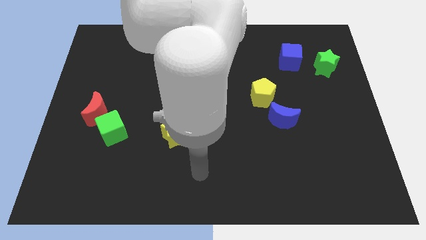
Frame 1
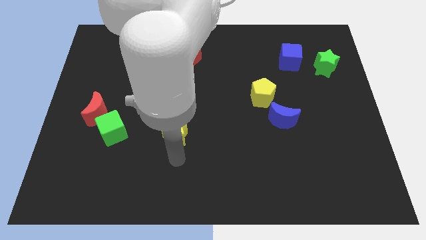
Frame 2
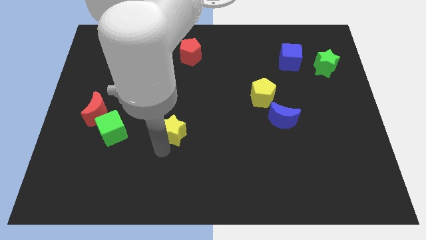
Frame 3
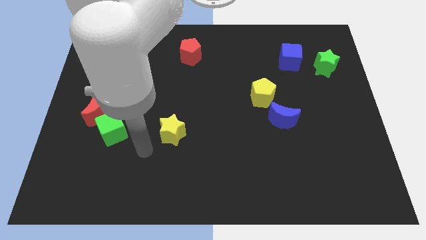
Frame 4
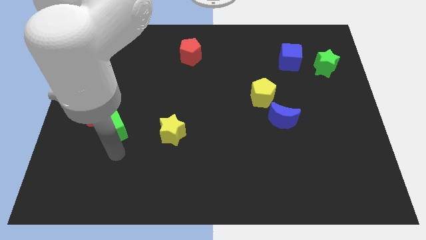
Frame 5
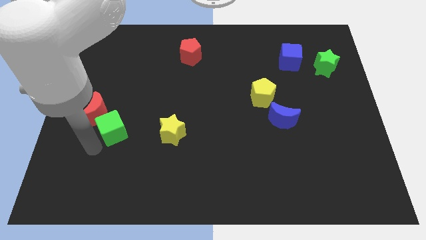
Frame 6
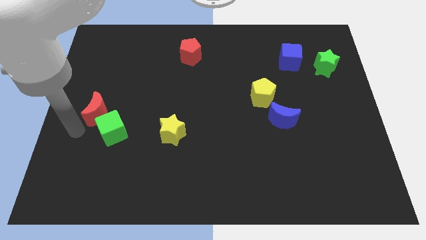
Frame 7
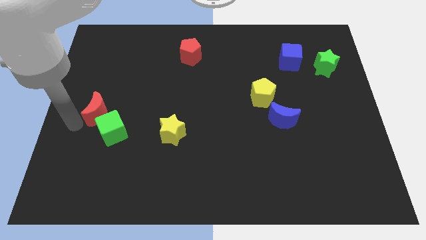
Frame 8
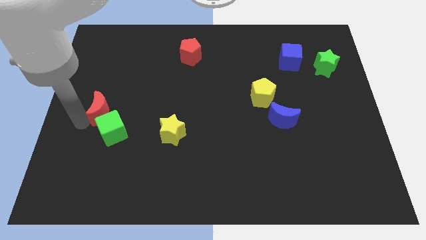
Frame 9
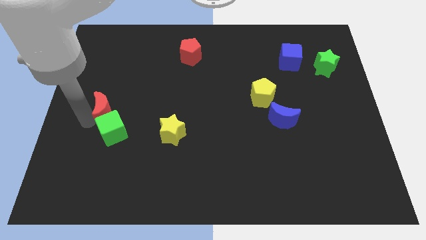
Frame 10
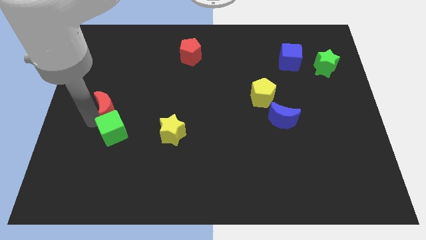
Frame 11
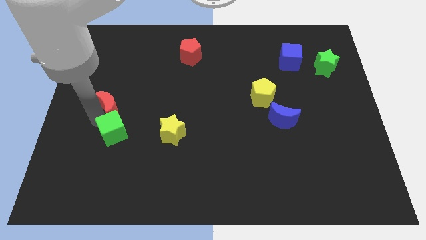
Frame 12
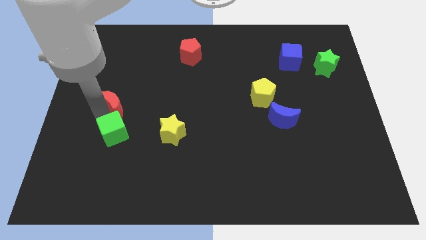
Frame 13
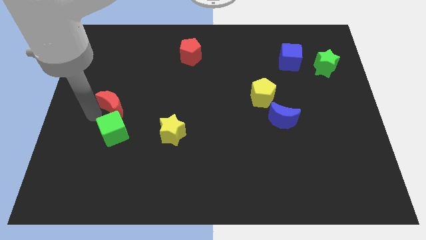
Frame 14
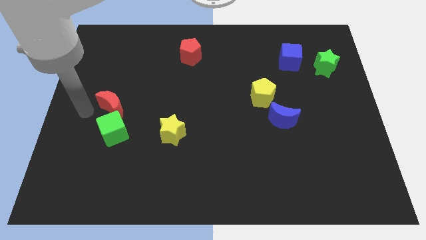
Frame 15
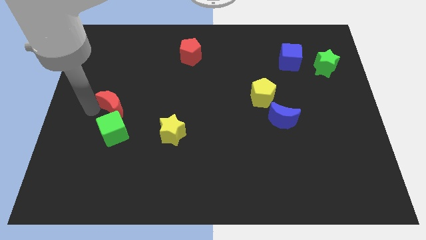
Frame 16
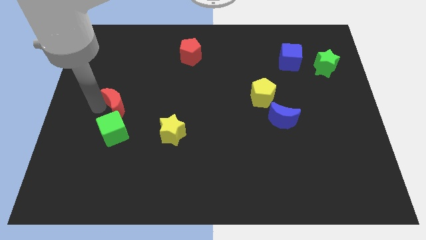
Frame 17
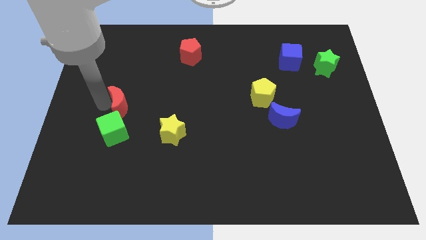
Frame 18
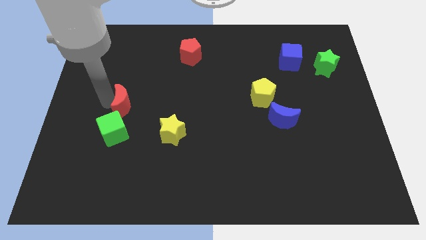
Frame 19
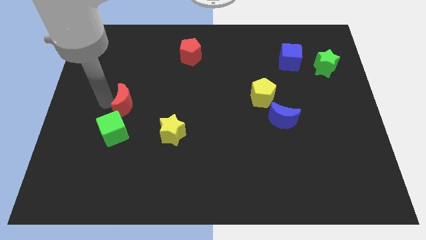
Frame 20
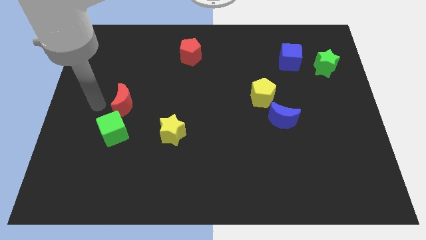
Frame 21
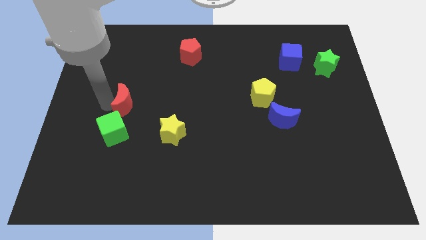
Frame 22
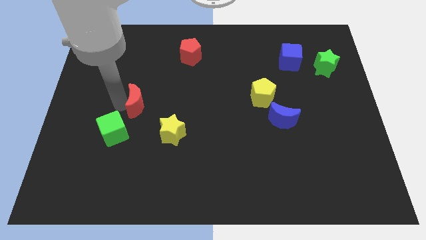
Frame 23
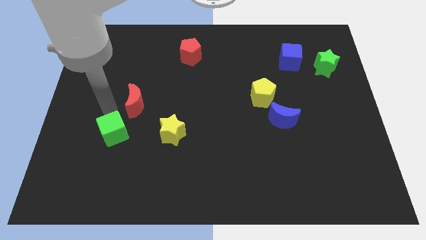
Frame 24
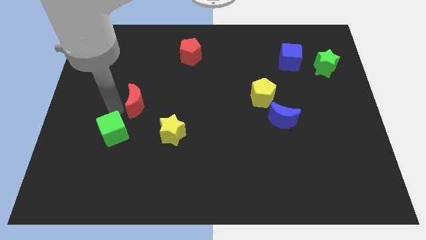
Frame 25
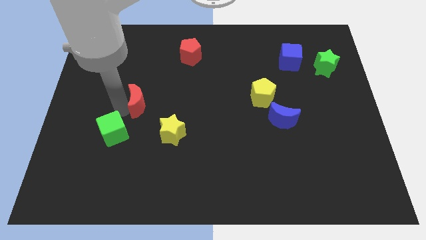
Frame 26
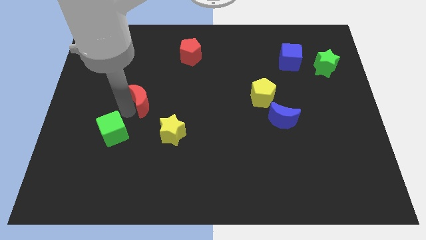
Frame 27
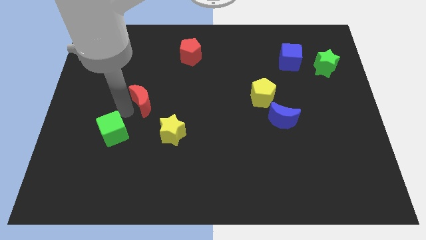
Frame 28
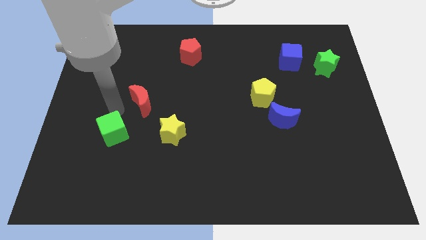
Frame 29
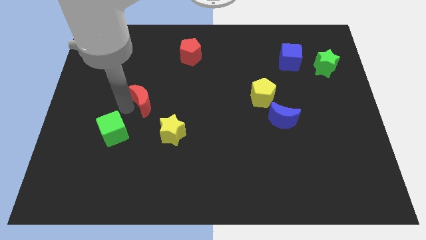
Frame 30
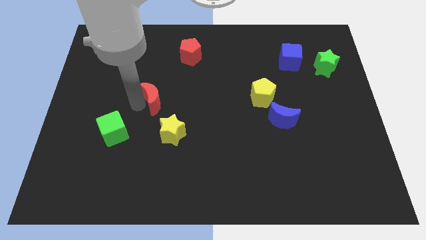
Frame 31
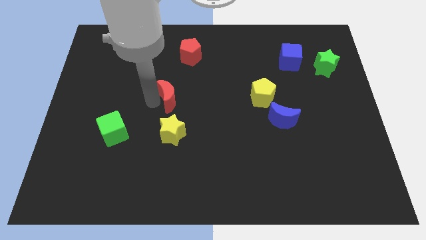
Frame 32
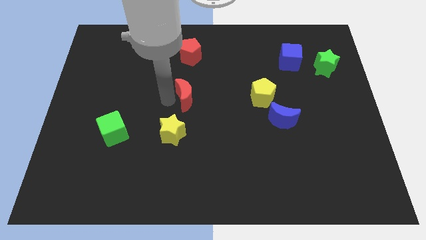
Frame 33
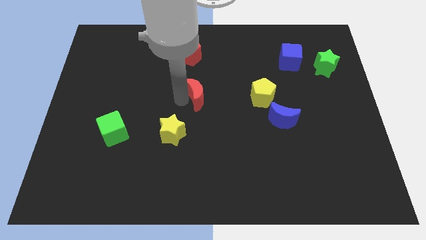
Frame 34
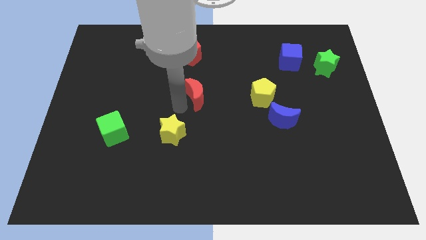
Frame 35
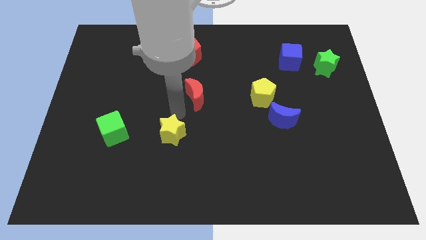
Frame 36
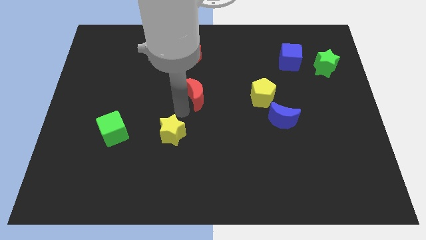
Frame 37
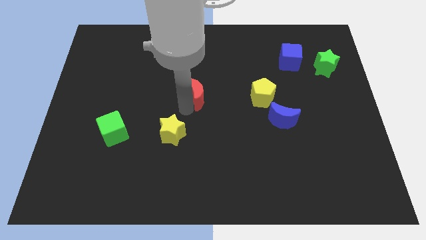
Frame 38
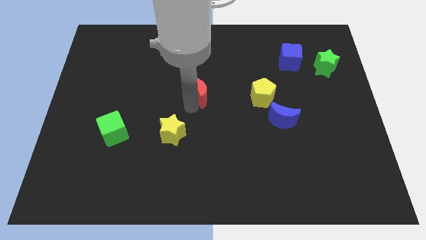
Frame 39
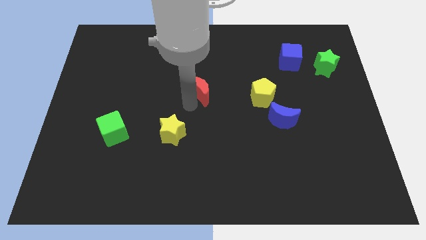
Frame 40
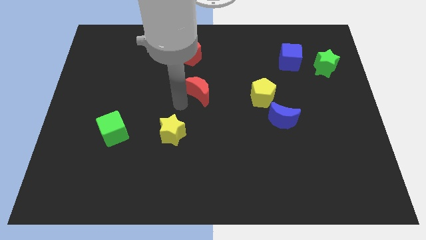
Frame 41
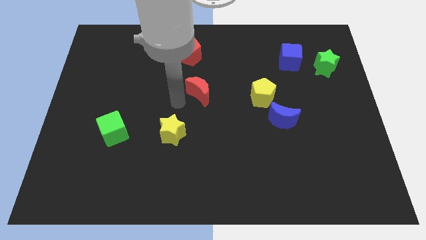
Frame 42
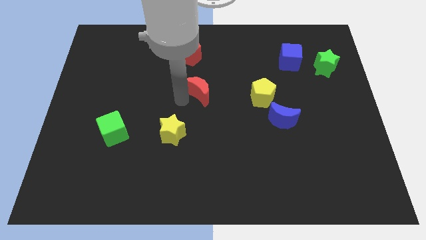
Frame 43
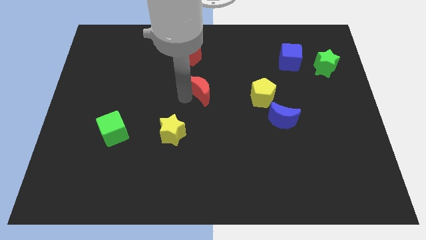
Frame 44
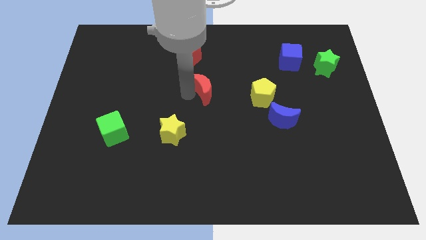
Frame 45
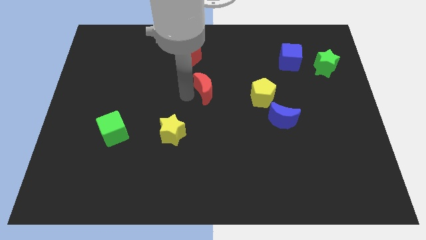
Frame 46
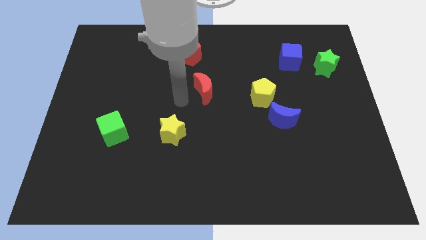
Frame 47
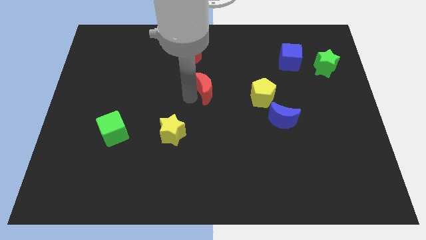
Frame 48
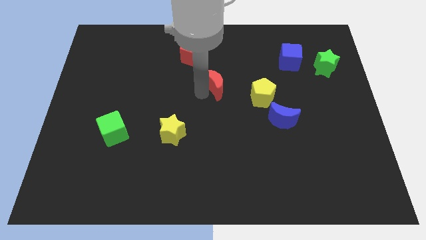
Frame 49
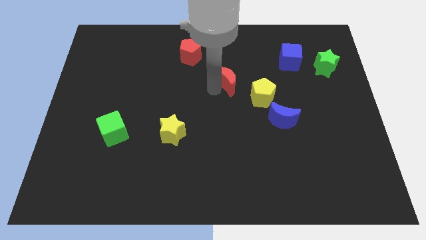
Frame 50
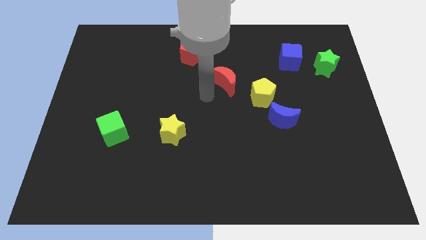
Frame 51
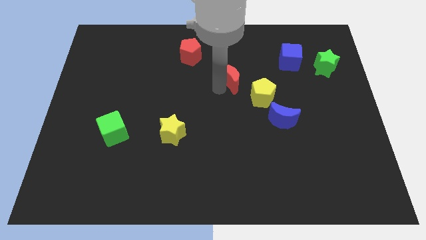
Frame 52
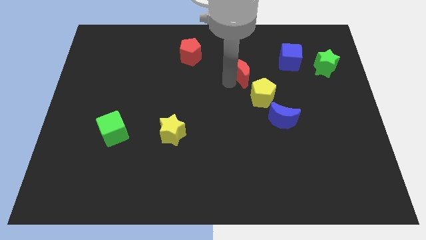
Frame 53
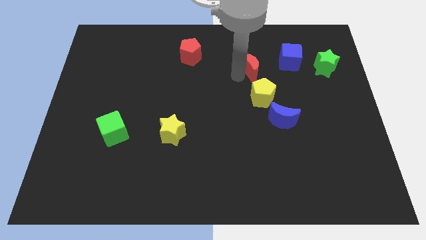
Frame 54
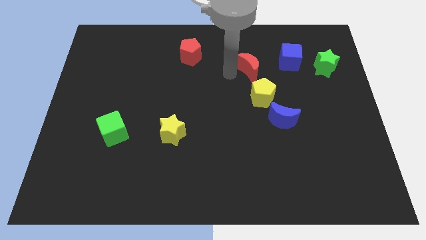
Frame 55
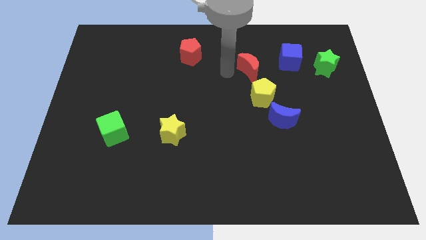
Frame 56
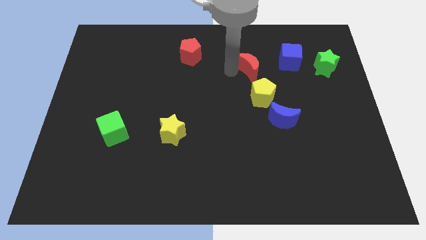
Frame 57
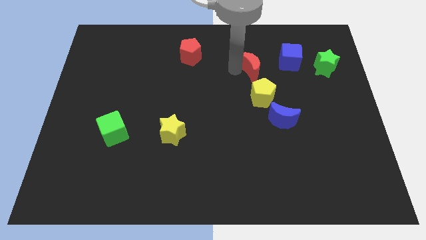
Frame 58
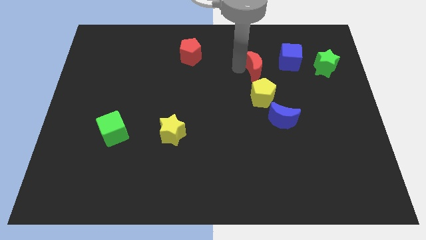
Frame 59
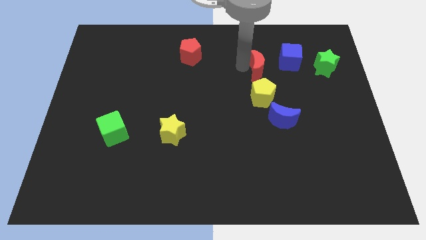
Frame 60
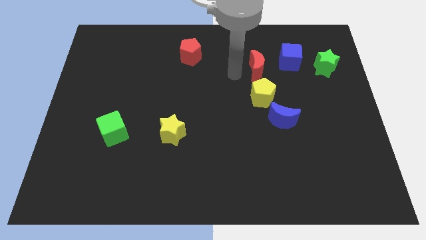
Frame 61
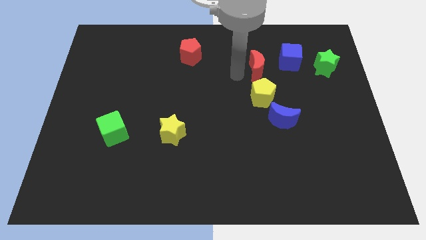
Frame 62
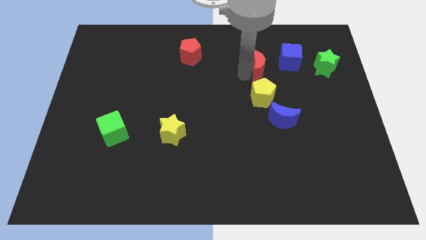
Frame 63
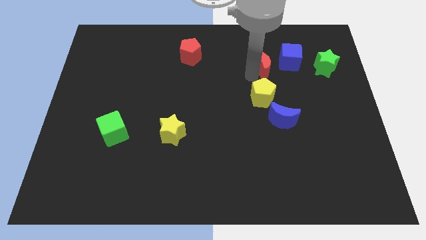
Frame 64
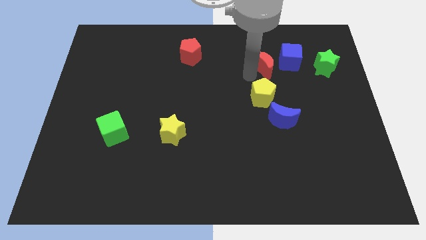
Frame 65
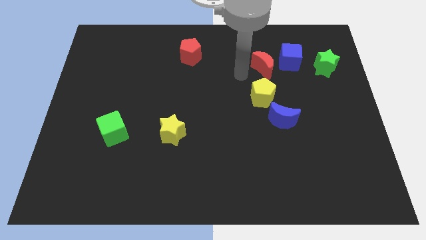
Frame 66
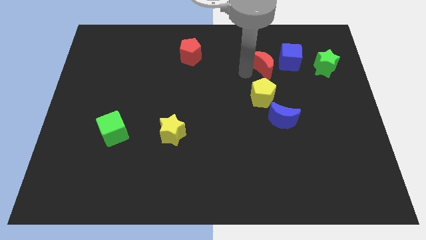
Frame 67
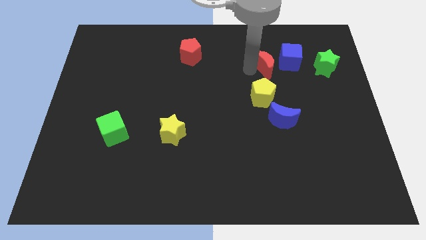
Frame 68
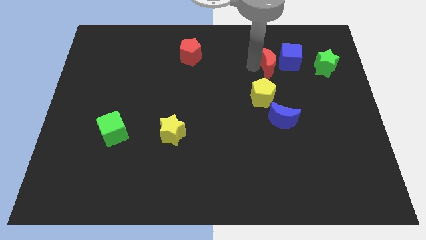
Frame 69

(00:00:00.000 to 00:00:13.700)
move the red moon towards the blue cube

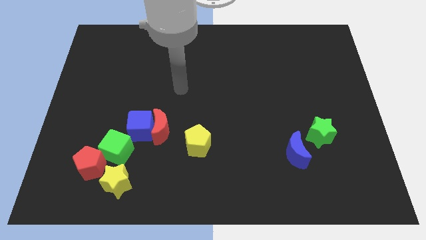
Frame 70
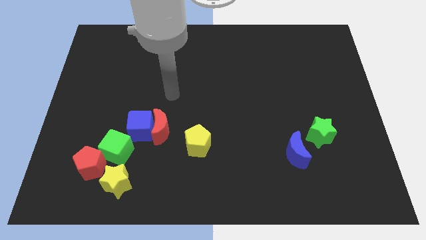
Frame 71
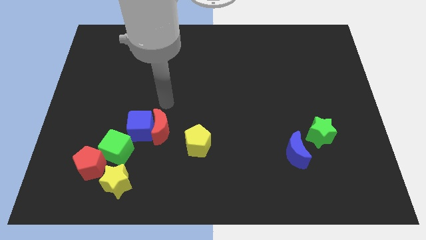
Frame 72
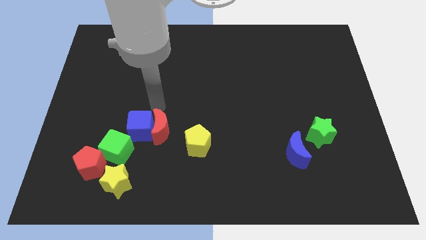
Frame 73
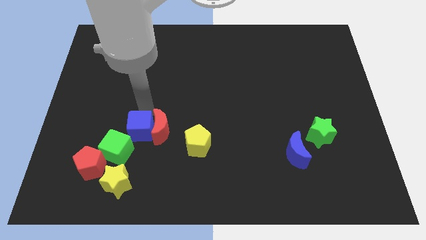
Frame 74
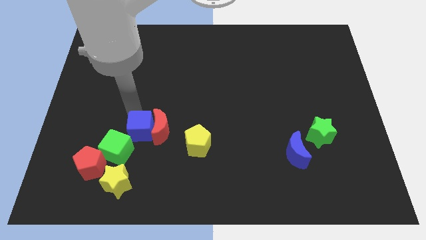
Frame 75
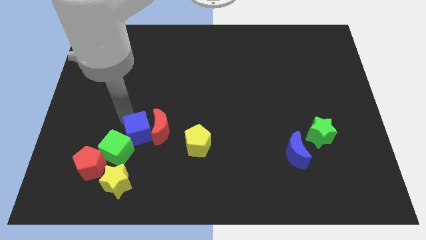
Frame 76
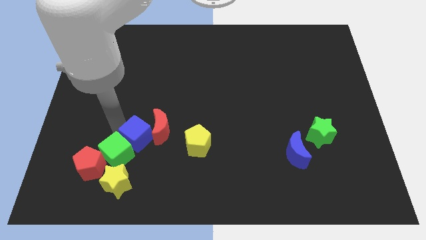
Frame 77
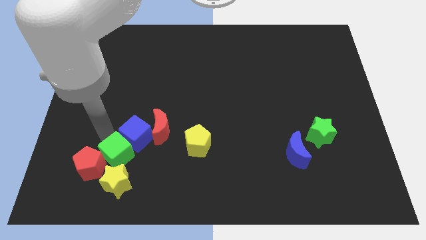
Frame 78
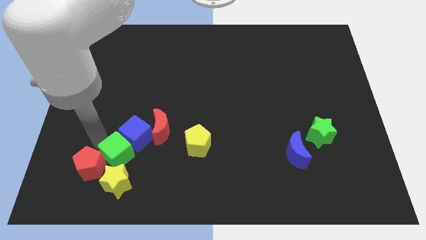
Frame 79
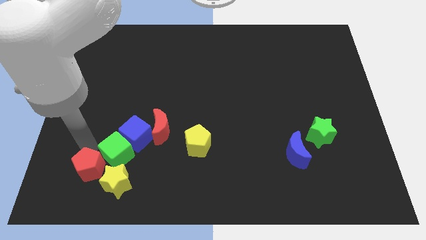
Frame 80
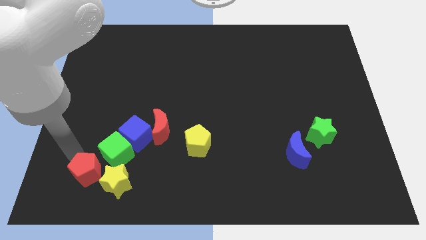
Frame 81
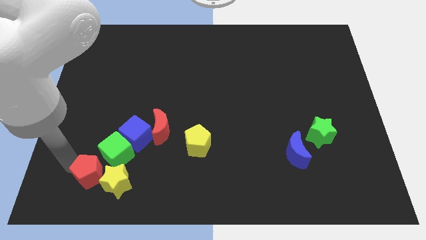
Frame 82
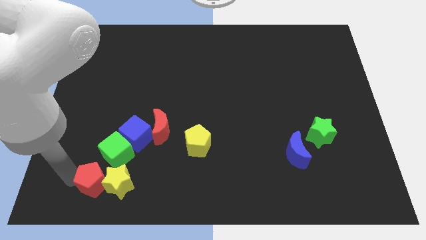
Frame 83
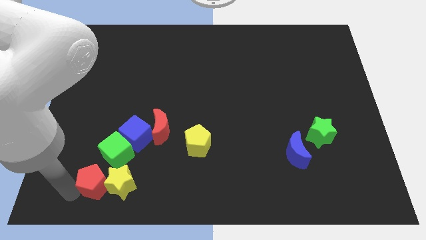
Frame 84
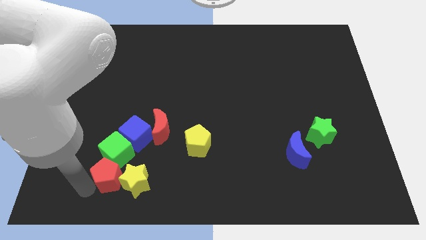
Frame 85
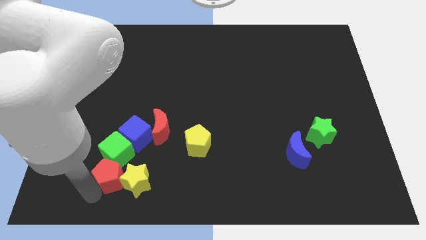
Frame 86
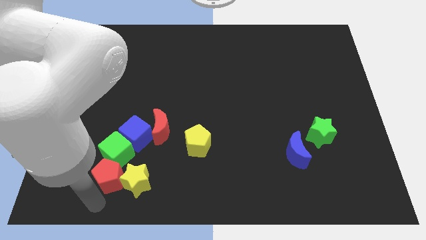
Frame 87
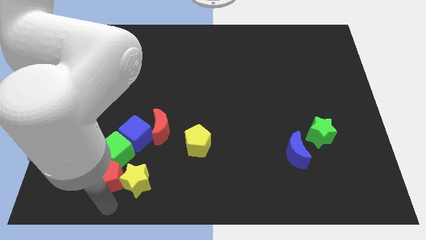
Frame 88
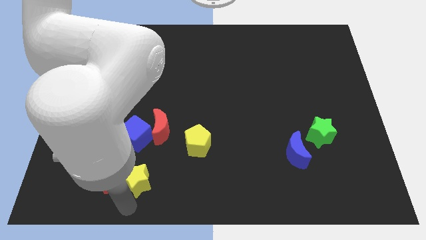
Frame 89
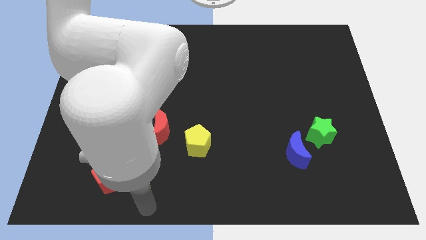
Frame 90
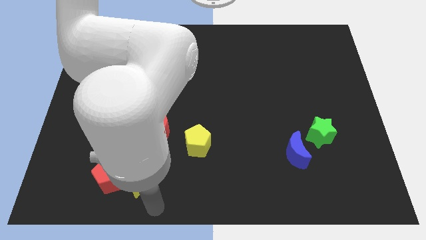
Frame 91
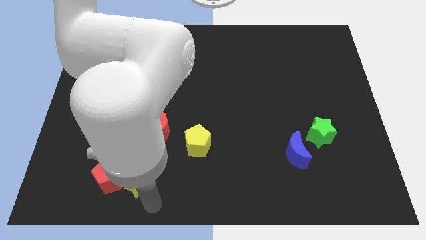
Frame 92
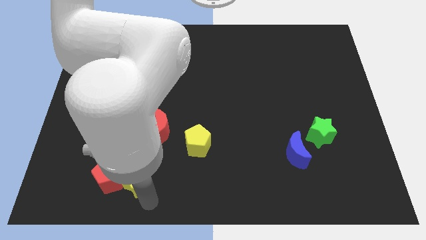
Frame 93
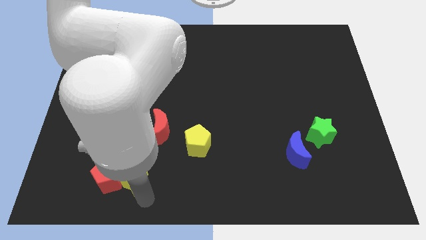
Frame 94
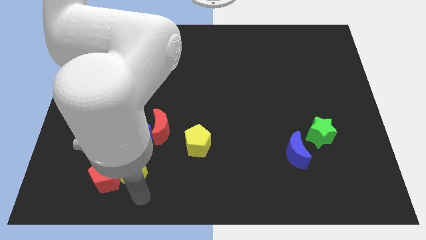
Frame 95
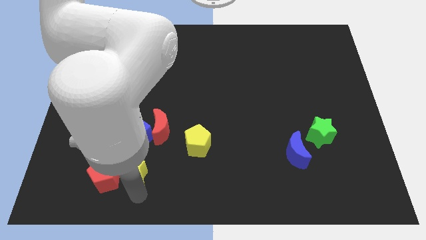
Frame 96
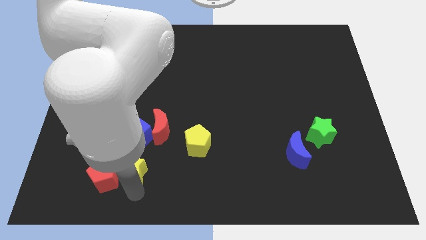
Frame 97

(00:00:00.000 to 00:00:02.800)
move the yellow star to the green cube
